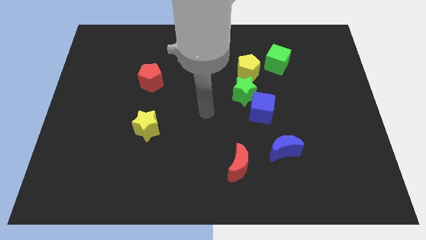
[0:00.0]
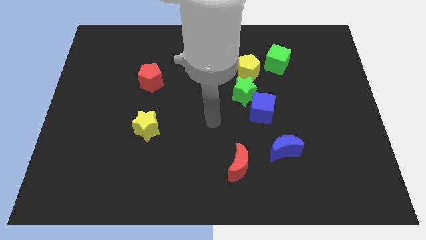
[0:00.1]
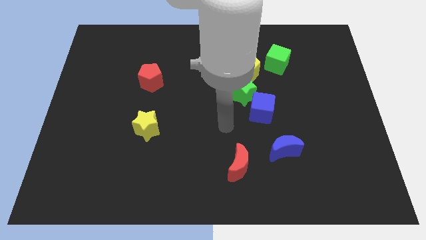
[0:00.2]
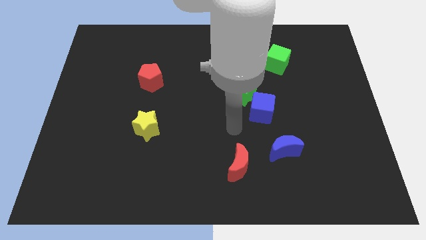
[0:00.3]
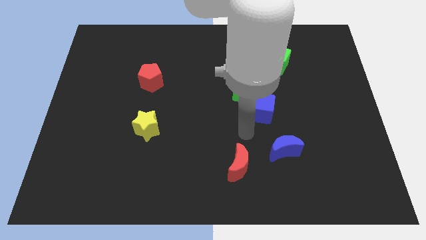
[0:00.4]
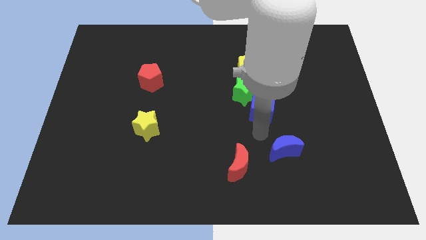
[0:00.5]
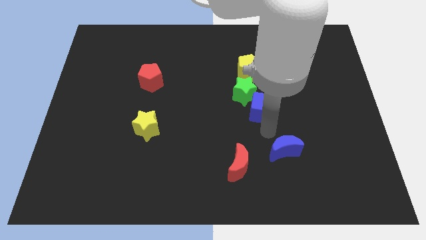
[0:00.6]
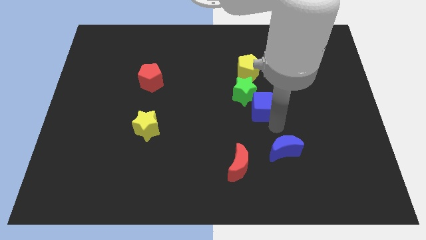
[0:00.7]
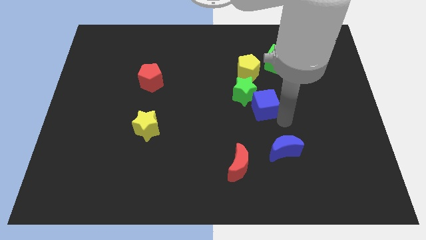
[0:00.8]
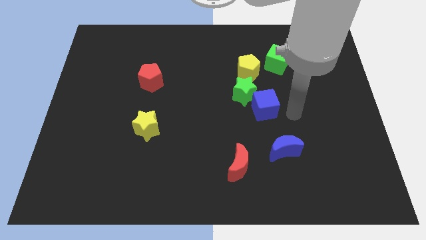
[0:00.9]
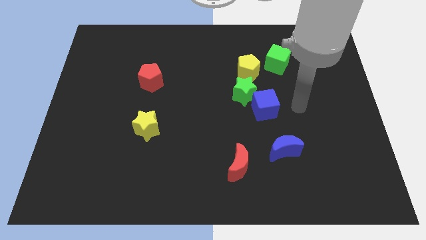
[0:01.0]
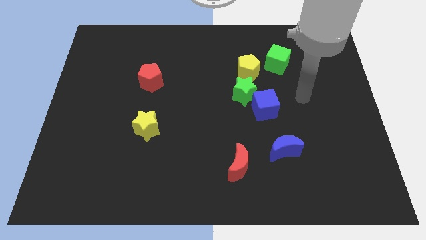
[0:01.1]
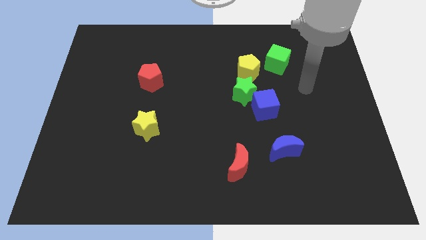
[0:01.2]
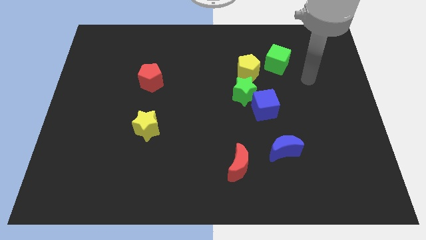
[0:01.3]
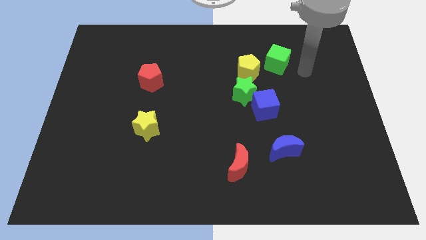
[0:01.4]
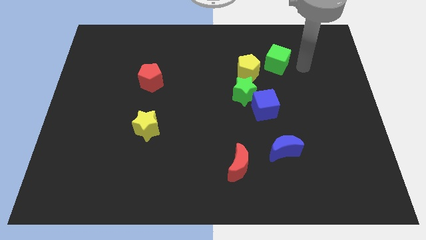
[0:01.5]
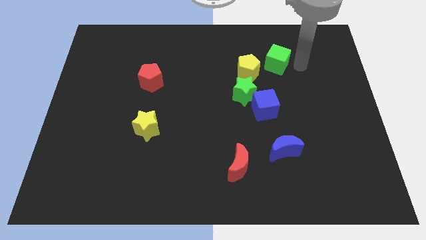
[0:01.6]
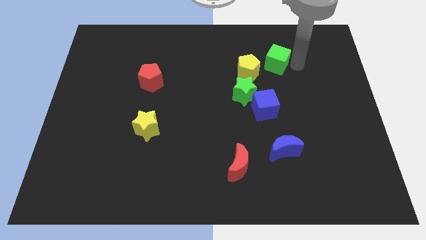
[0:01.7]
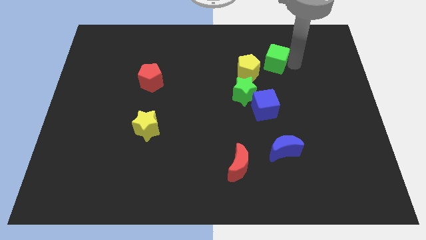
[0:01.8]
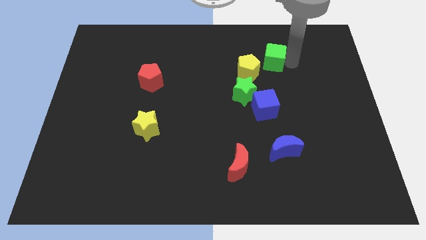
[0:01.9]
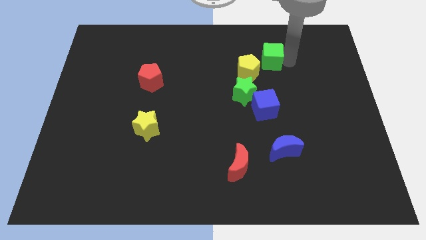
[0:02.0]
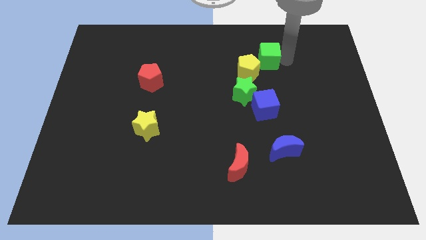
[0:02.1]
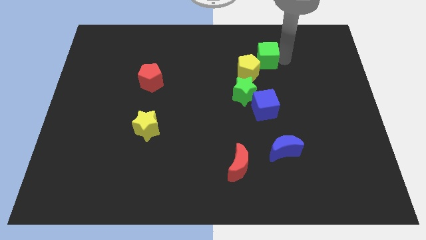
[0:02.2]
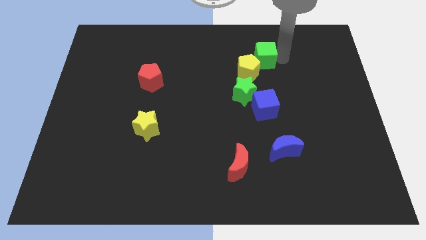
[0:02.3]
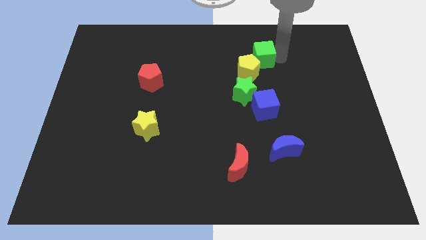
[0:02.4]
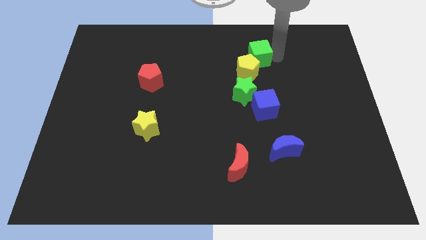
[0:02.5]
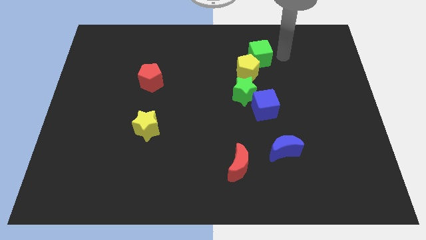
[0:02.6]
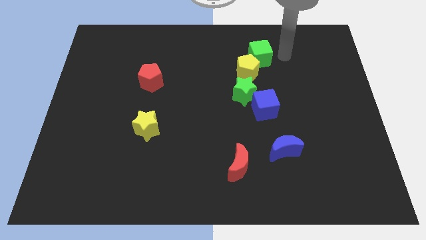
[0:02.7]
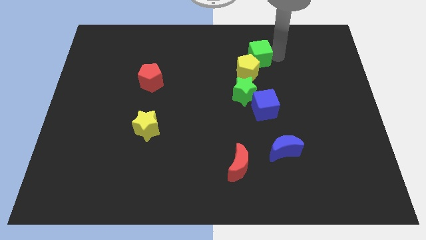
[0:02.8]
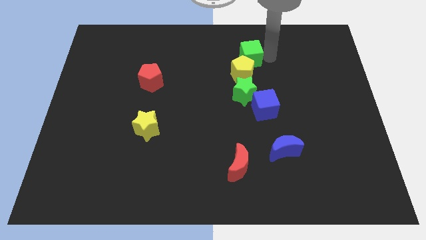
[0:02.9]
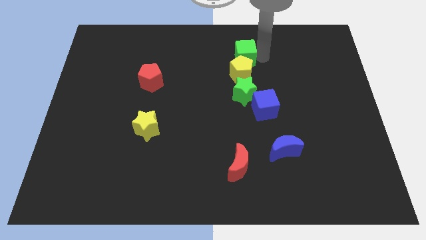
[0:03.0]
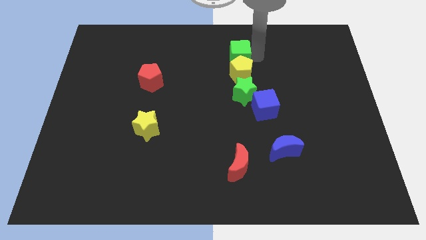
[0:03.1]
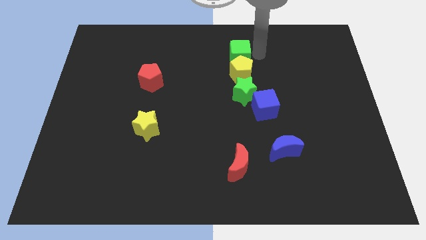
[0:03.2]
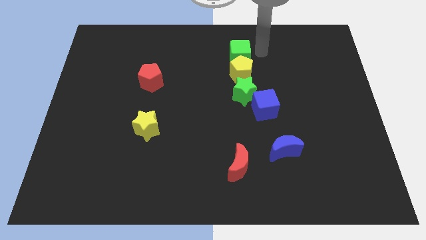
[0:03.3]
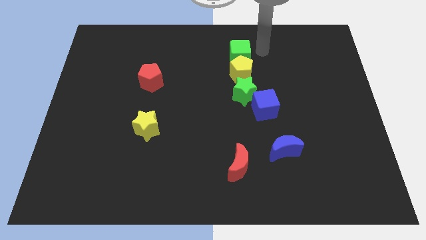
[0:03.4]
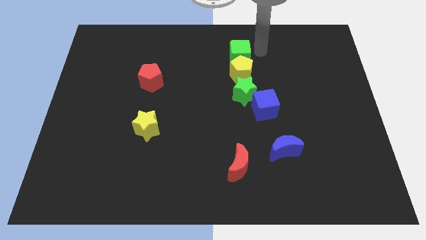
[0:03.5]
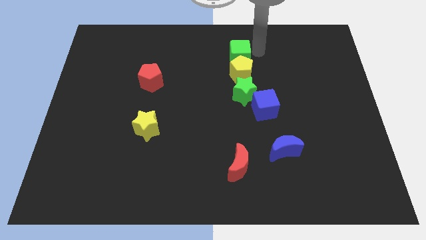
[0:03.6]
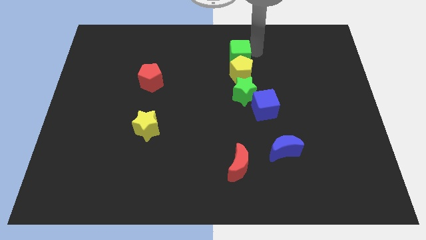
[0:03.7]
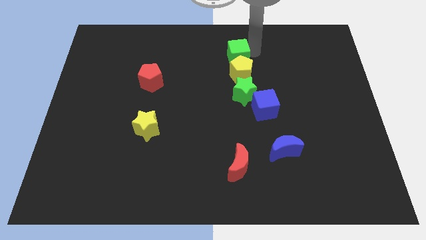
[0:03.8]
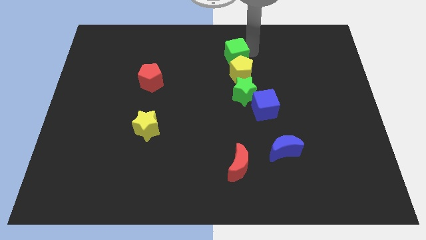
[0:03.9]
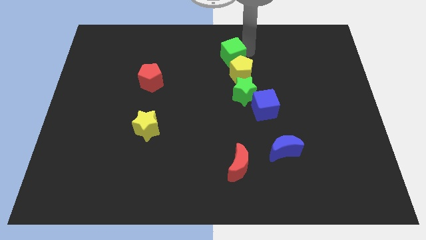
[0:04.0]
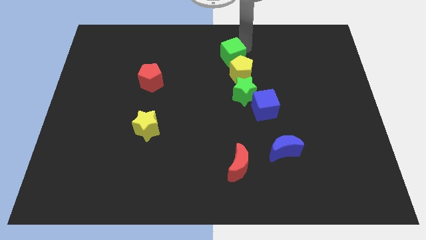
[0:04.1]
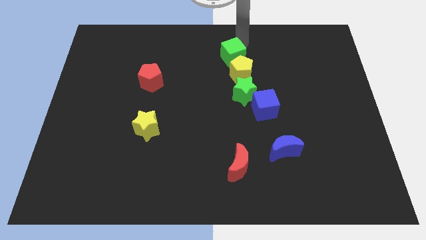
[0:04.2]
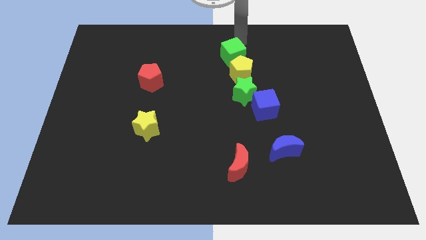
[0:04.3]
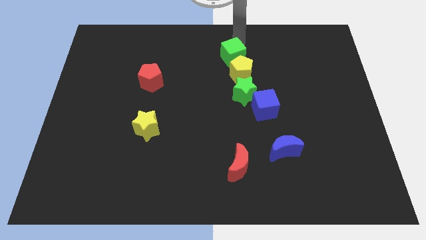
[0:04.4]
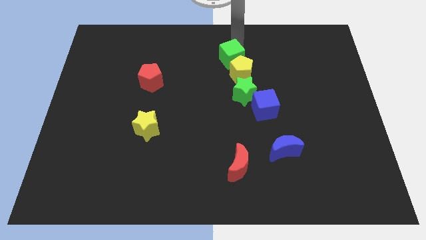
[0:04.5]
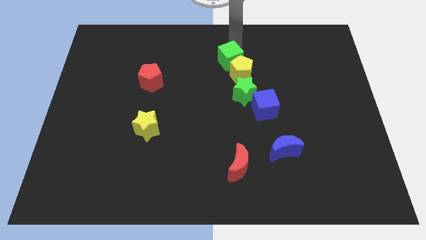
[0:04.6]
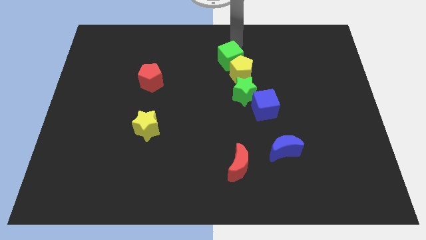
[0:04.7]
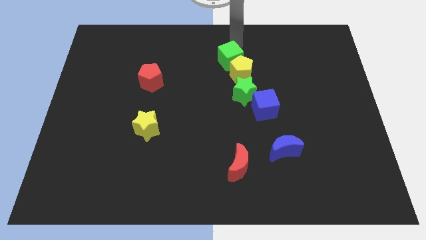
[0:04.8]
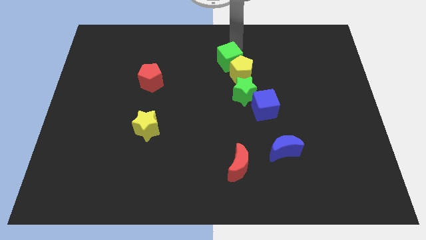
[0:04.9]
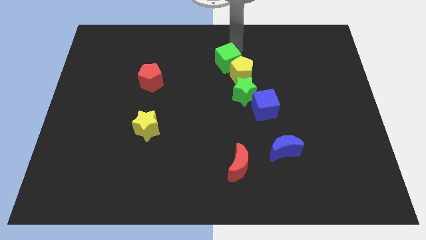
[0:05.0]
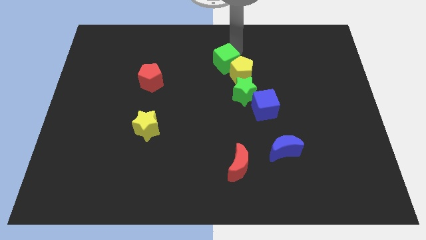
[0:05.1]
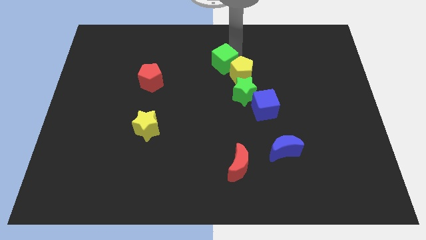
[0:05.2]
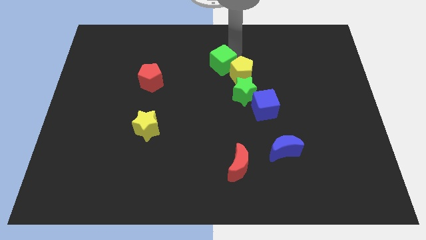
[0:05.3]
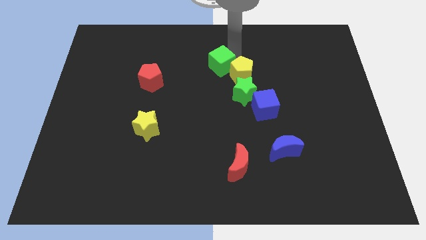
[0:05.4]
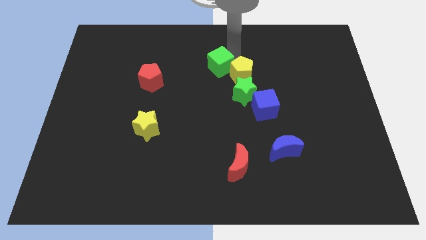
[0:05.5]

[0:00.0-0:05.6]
slightly move the green cube down and left diagonally

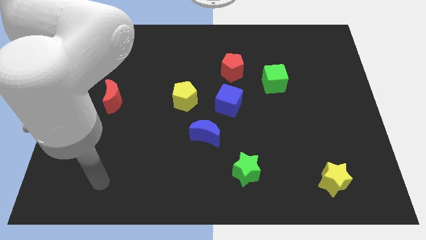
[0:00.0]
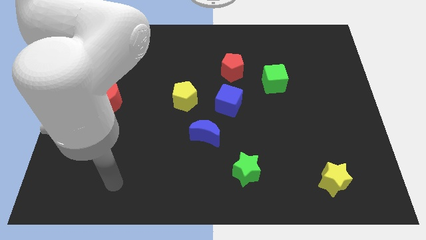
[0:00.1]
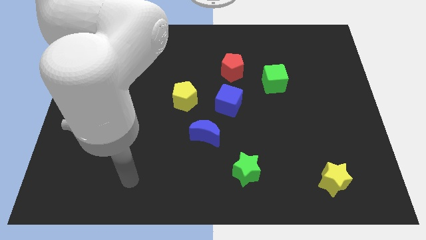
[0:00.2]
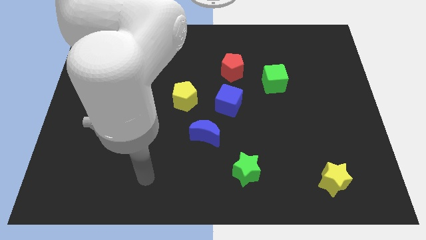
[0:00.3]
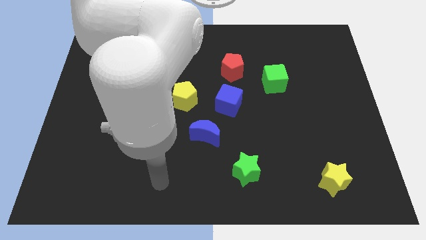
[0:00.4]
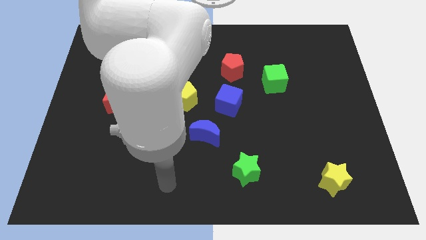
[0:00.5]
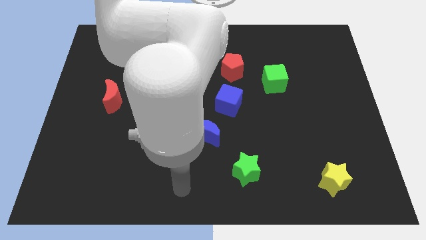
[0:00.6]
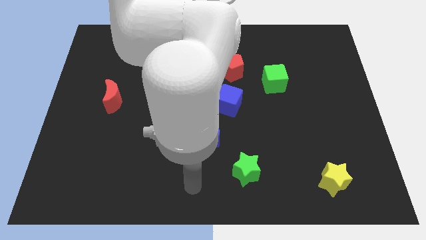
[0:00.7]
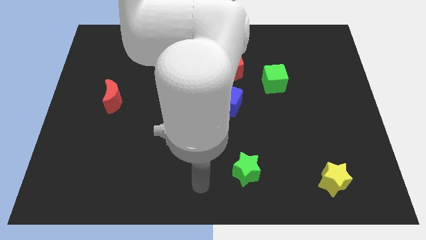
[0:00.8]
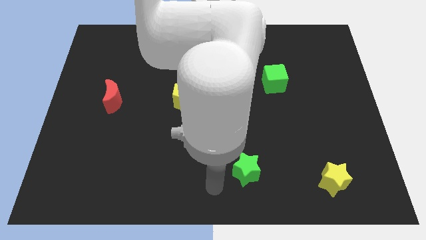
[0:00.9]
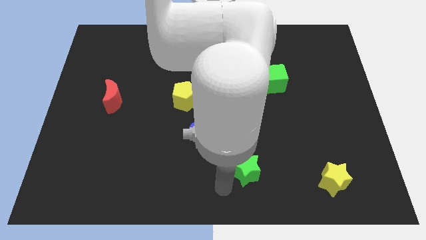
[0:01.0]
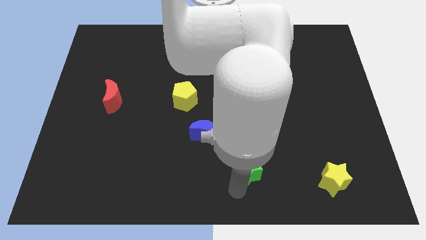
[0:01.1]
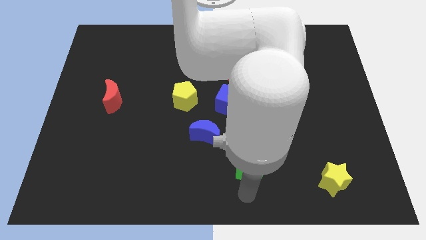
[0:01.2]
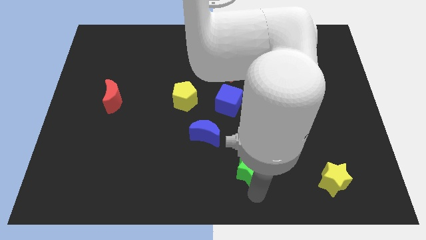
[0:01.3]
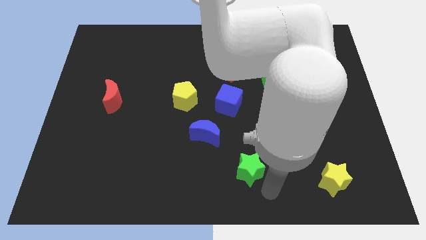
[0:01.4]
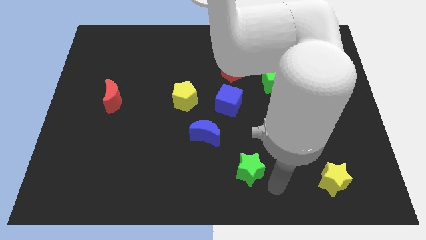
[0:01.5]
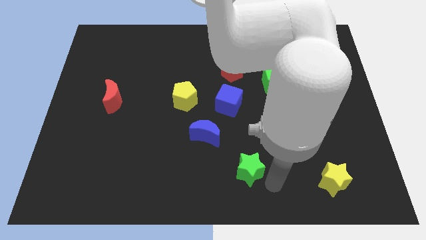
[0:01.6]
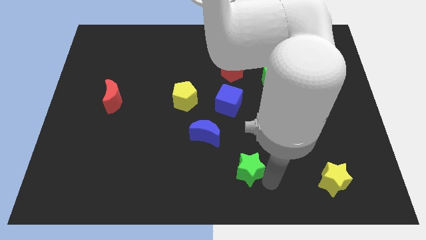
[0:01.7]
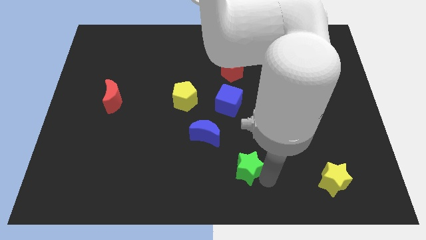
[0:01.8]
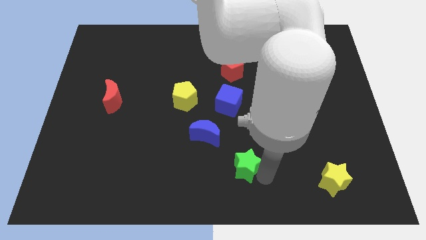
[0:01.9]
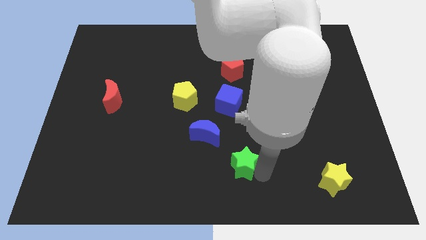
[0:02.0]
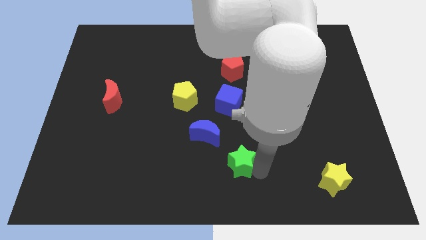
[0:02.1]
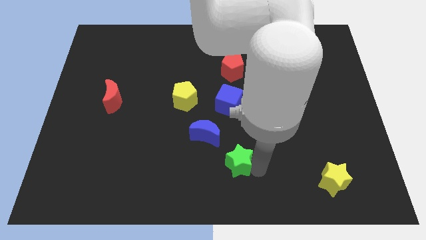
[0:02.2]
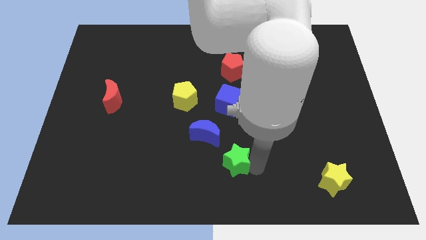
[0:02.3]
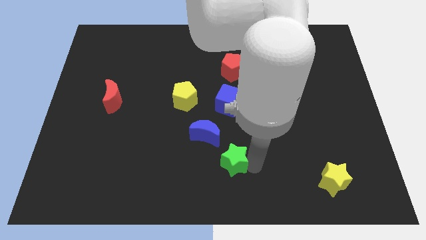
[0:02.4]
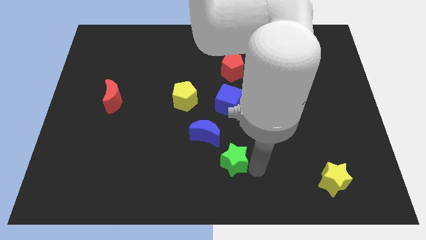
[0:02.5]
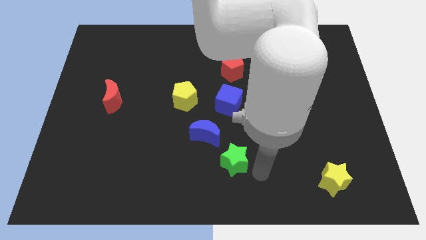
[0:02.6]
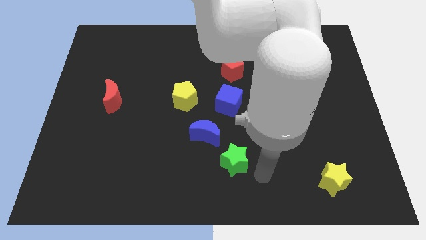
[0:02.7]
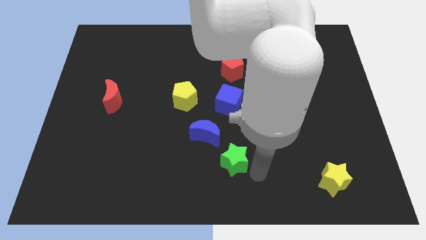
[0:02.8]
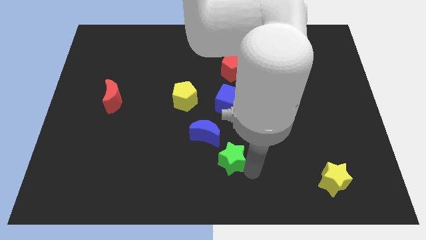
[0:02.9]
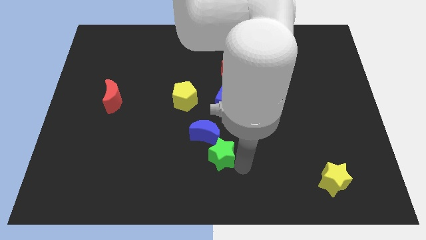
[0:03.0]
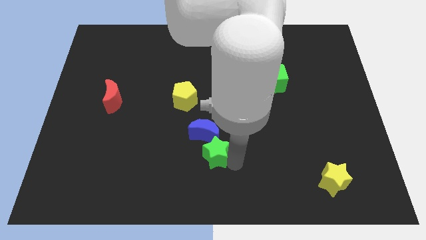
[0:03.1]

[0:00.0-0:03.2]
push the green star a little diagonally up and to the left
